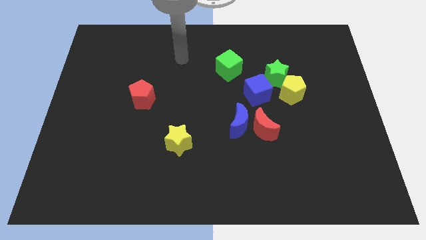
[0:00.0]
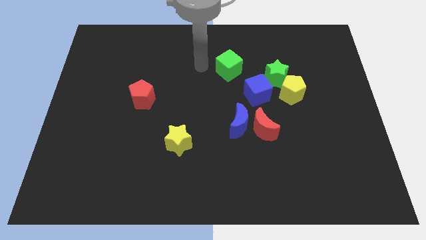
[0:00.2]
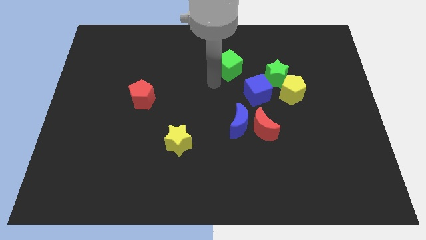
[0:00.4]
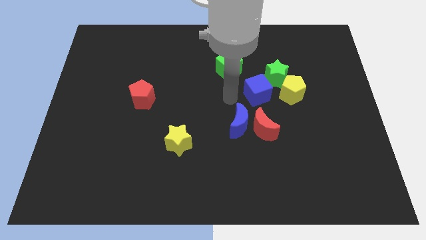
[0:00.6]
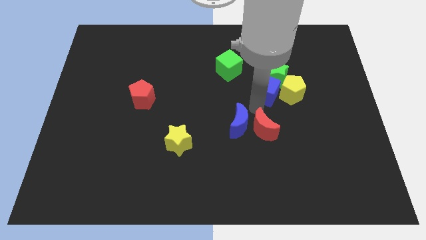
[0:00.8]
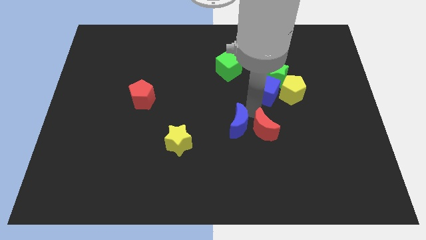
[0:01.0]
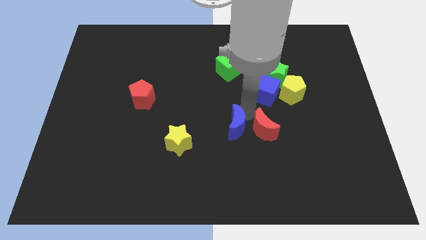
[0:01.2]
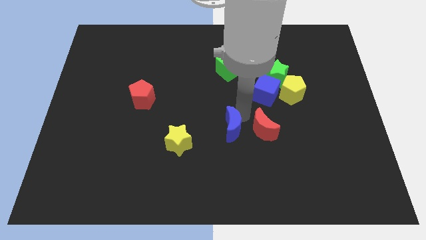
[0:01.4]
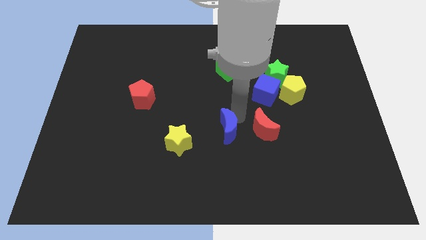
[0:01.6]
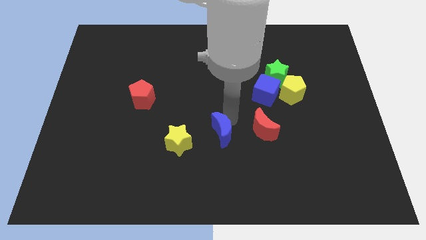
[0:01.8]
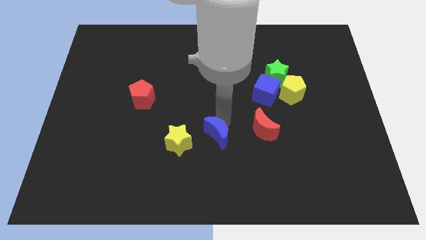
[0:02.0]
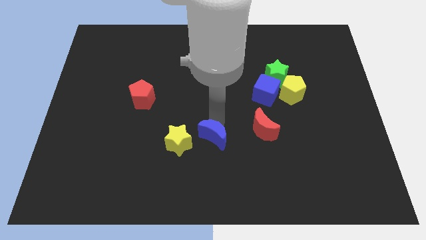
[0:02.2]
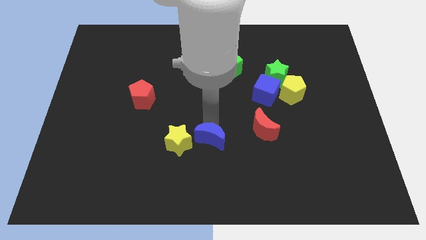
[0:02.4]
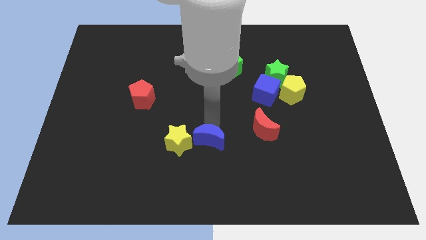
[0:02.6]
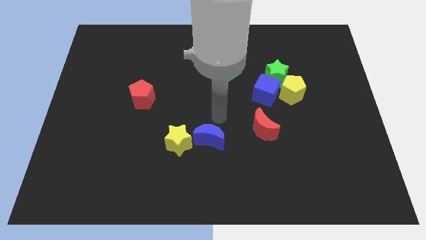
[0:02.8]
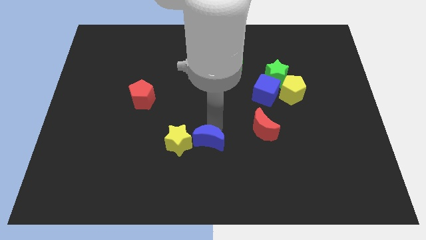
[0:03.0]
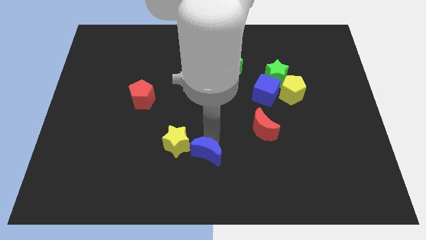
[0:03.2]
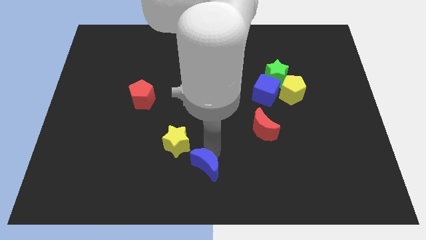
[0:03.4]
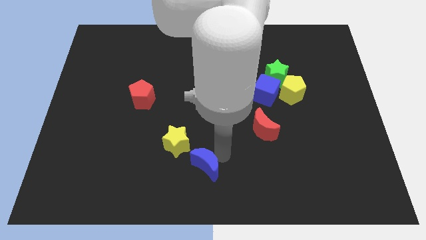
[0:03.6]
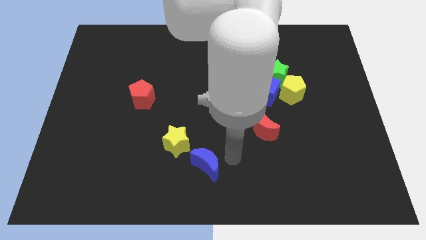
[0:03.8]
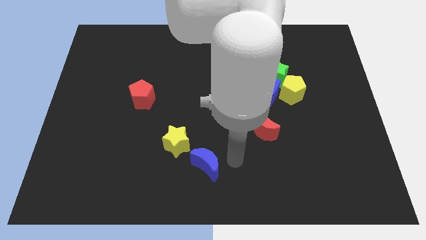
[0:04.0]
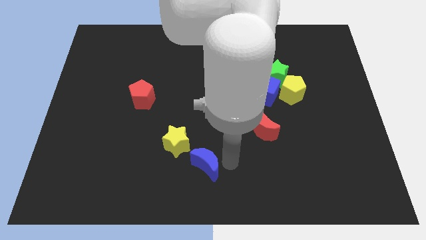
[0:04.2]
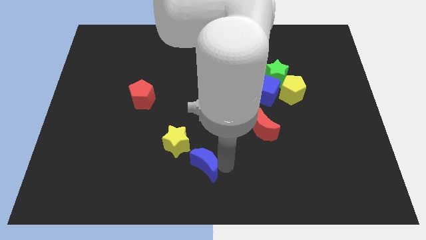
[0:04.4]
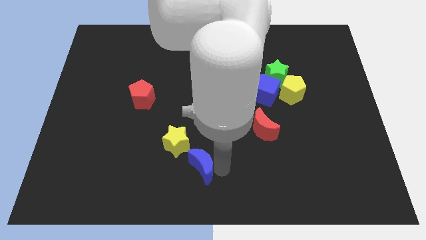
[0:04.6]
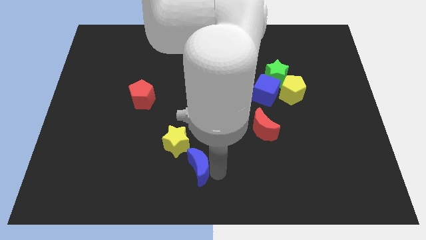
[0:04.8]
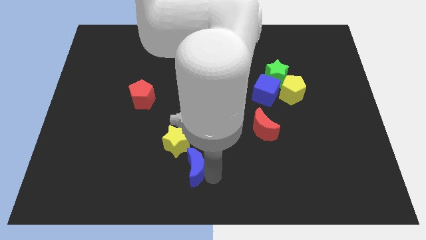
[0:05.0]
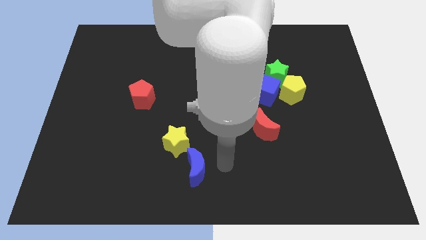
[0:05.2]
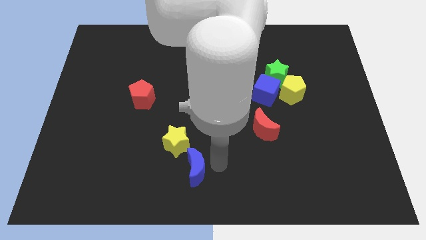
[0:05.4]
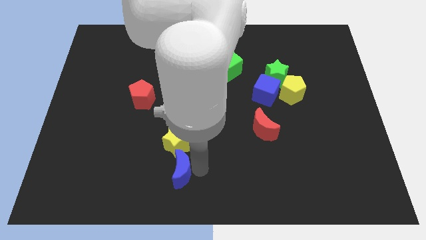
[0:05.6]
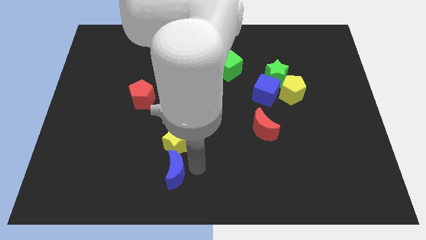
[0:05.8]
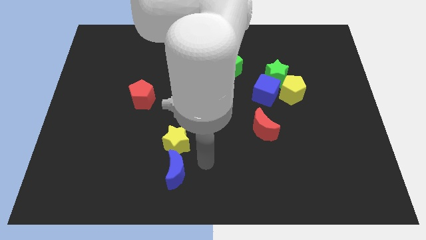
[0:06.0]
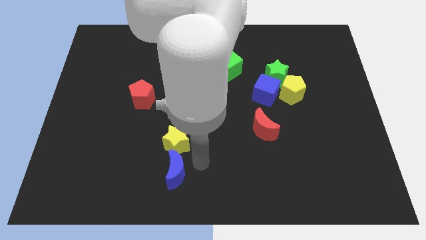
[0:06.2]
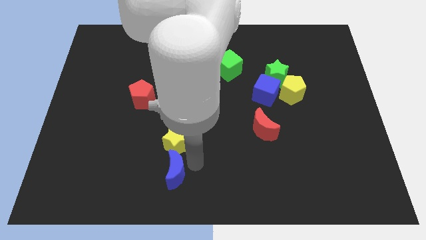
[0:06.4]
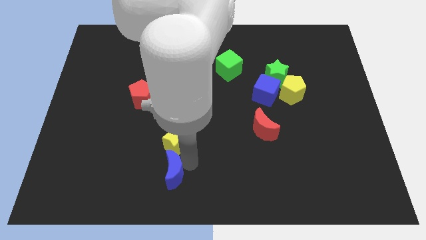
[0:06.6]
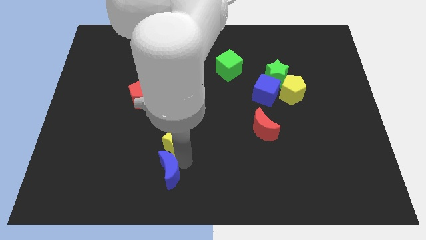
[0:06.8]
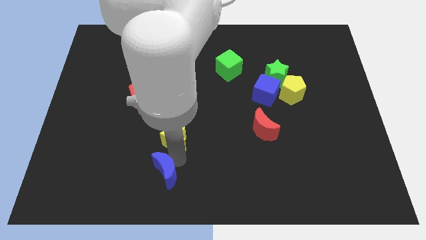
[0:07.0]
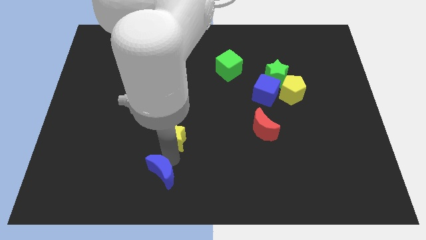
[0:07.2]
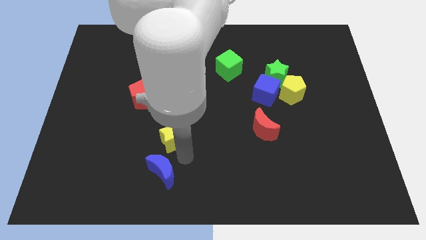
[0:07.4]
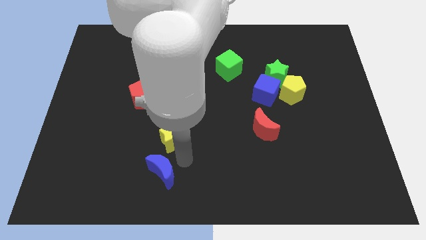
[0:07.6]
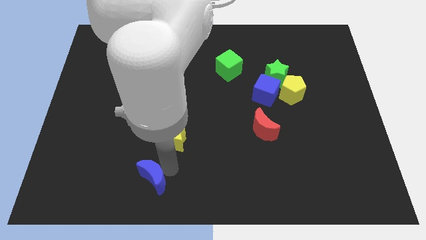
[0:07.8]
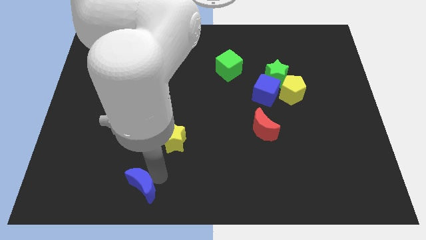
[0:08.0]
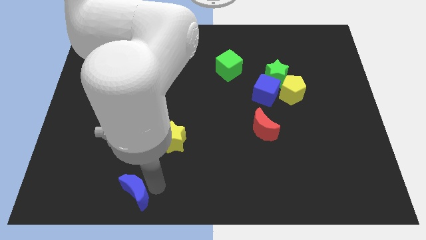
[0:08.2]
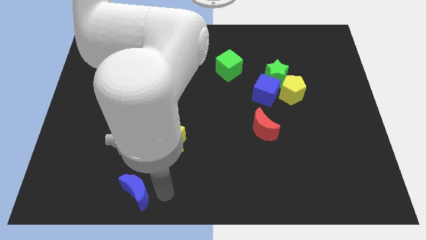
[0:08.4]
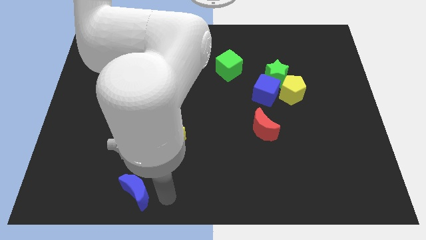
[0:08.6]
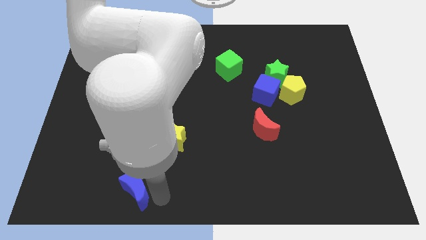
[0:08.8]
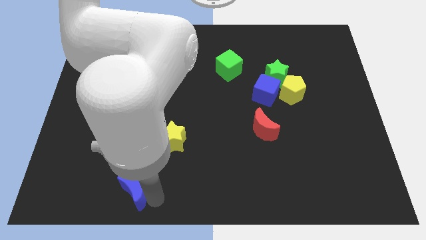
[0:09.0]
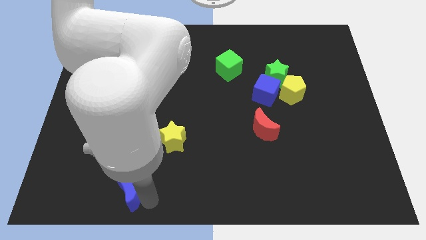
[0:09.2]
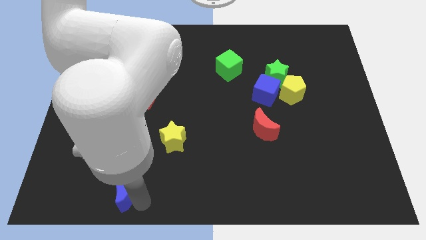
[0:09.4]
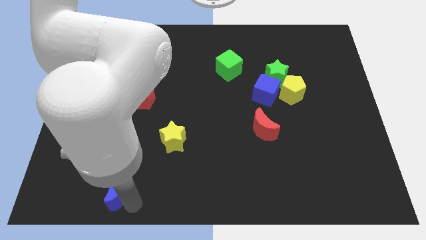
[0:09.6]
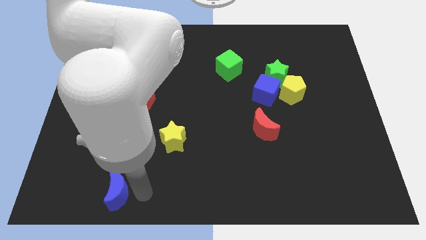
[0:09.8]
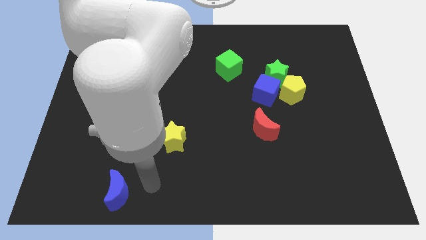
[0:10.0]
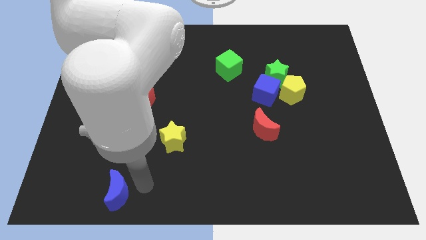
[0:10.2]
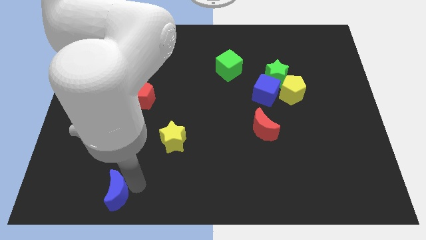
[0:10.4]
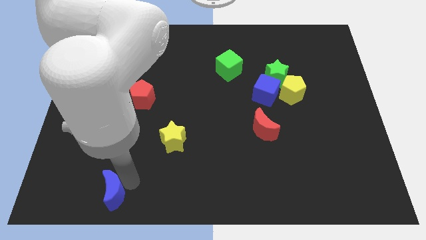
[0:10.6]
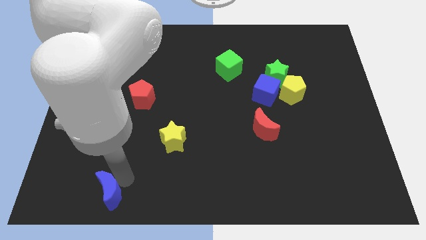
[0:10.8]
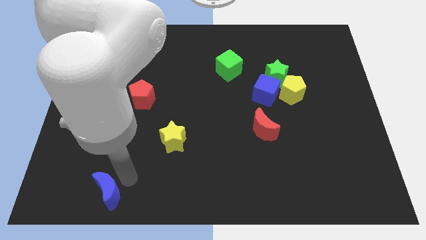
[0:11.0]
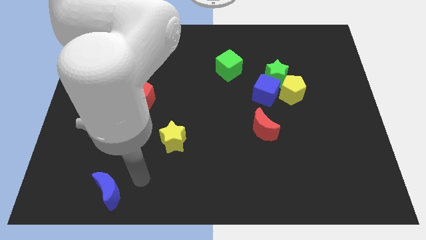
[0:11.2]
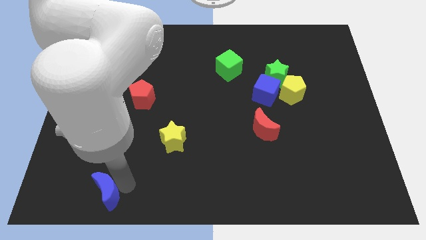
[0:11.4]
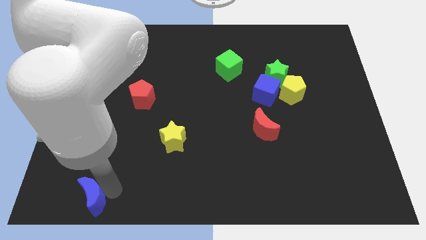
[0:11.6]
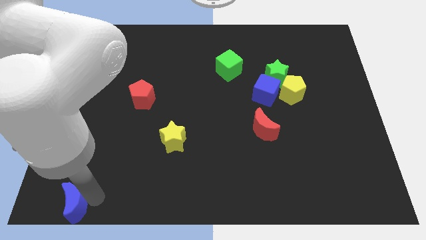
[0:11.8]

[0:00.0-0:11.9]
slide the blue moon to the bottom left corner

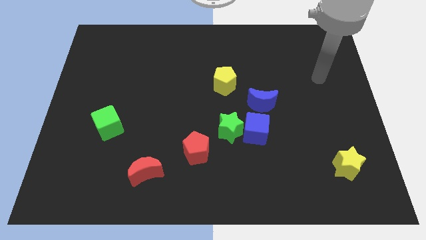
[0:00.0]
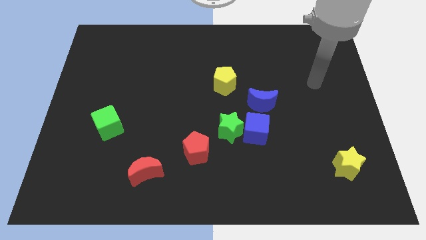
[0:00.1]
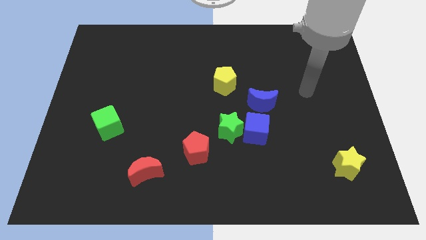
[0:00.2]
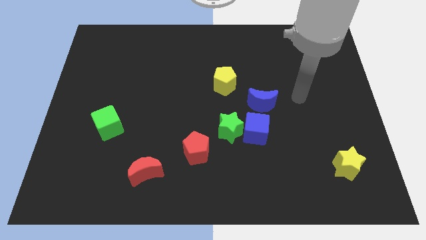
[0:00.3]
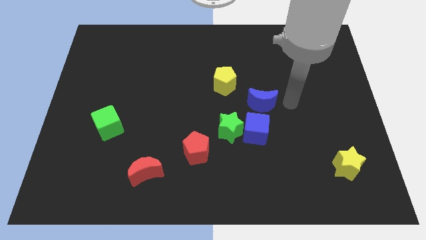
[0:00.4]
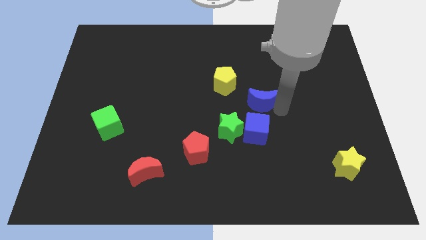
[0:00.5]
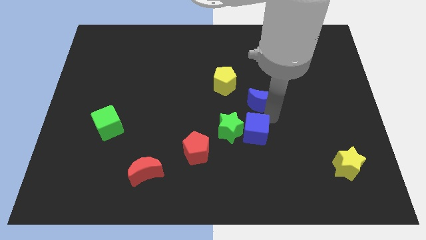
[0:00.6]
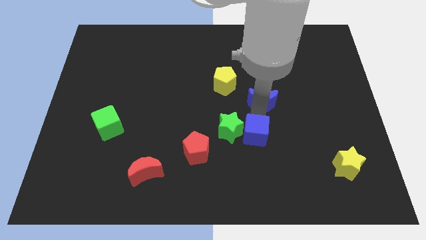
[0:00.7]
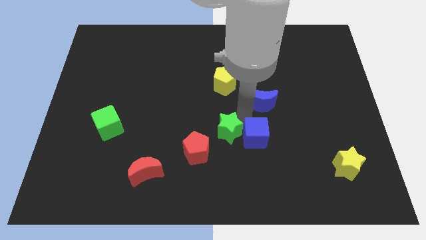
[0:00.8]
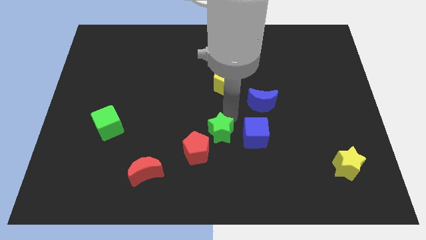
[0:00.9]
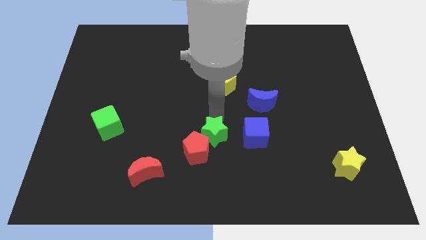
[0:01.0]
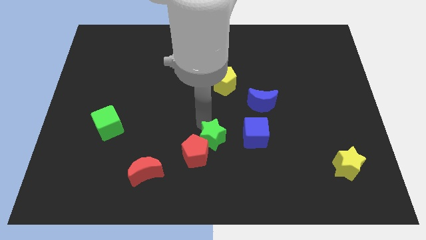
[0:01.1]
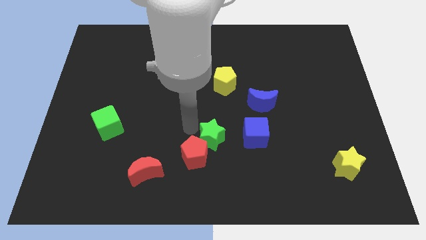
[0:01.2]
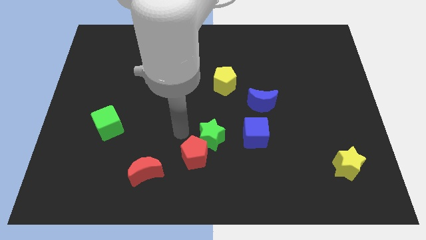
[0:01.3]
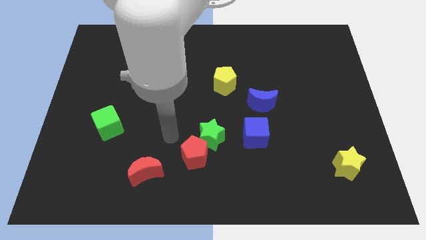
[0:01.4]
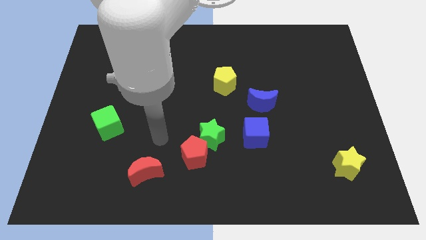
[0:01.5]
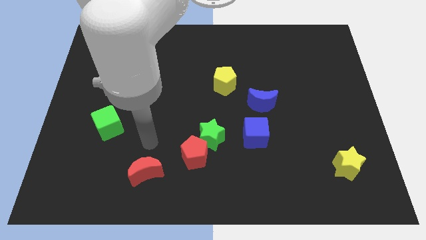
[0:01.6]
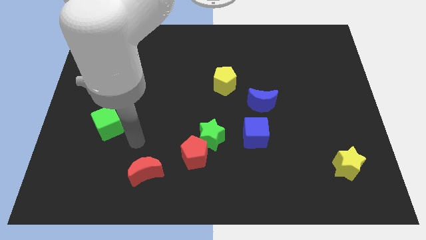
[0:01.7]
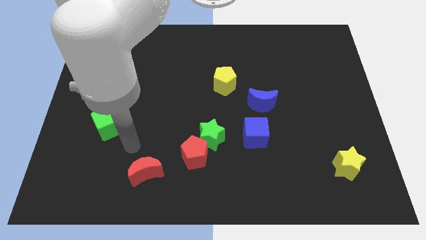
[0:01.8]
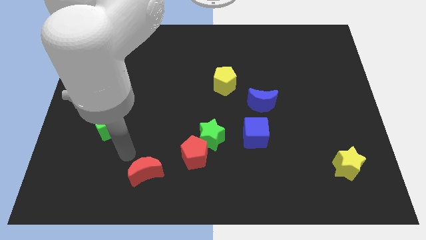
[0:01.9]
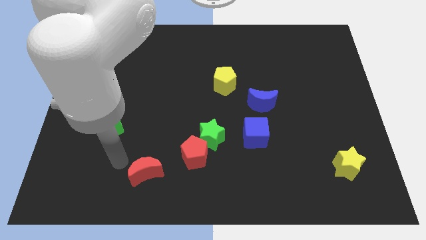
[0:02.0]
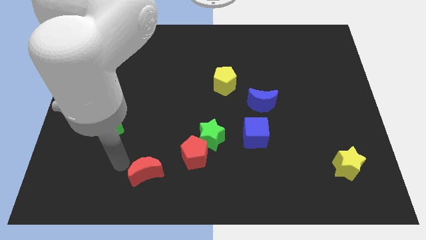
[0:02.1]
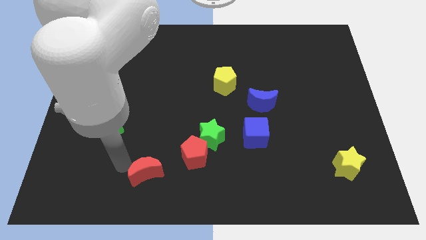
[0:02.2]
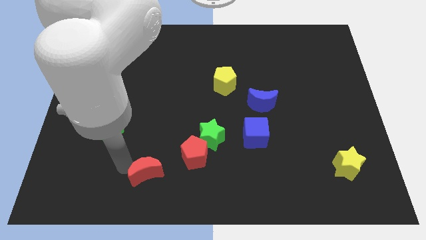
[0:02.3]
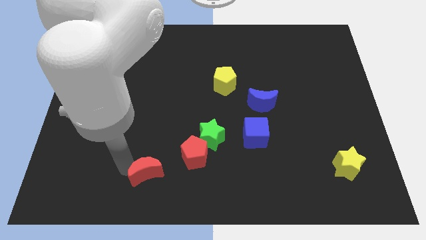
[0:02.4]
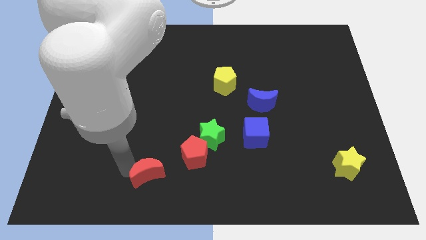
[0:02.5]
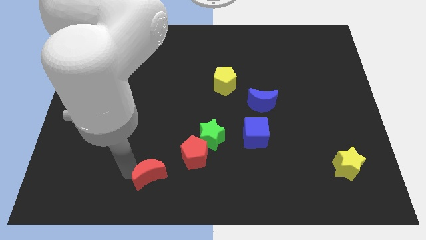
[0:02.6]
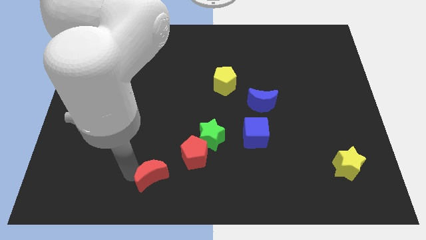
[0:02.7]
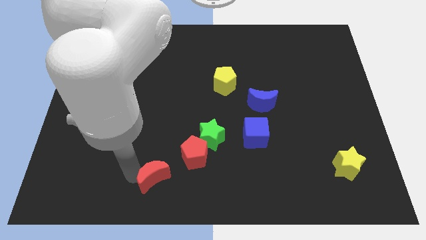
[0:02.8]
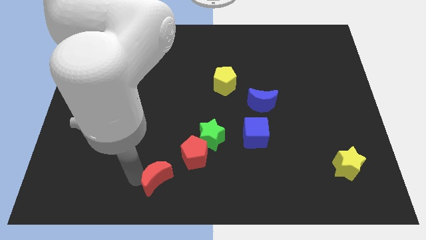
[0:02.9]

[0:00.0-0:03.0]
push the red moon to the bottom side
